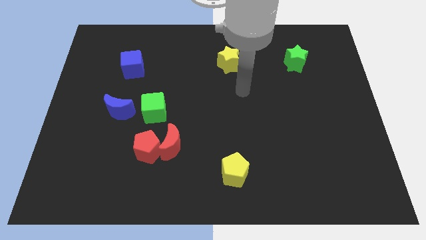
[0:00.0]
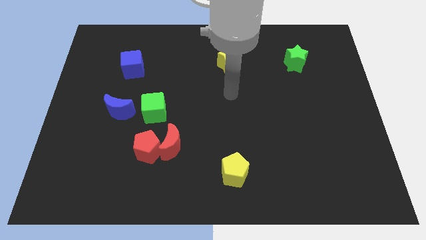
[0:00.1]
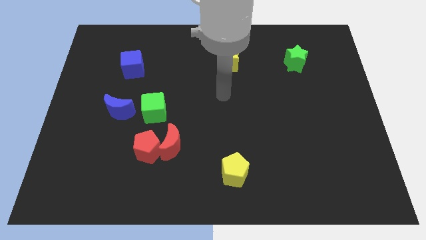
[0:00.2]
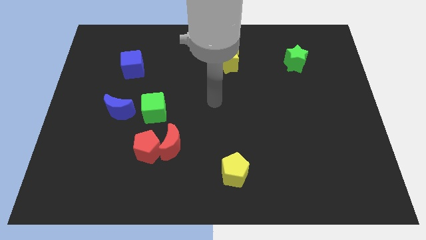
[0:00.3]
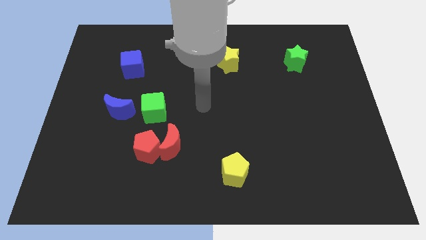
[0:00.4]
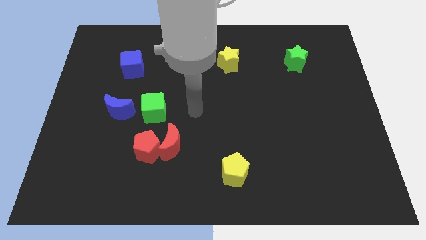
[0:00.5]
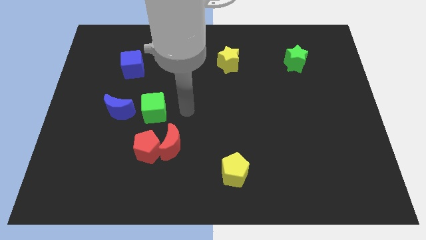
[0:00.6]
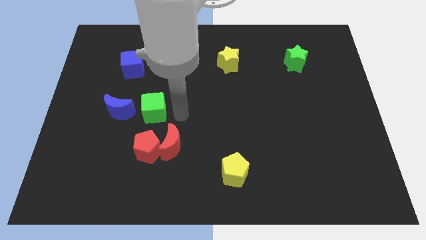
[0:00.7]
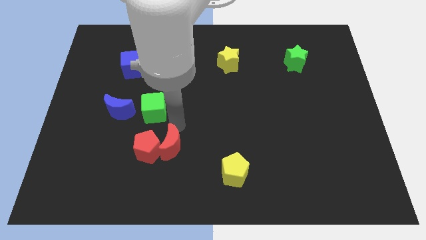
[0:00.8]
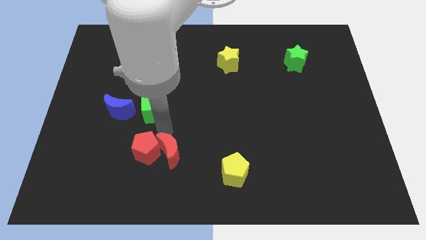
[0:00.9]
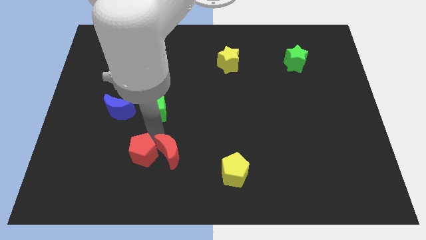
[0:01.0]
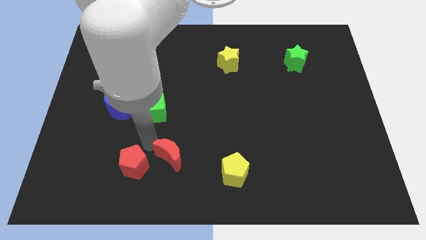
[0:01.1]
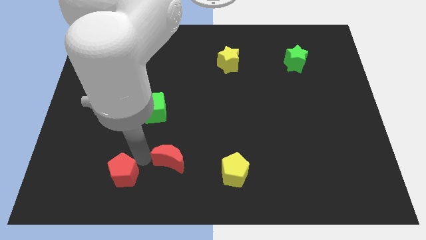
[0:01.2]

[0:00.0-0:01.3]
separate the red moon from the red pentagon

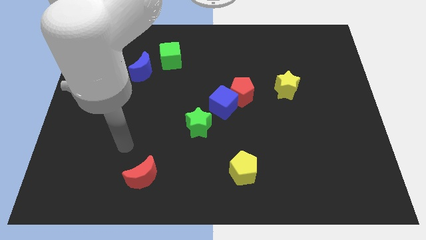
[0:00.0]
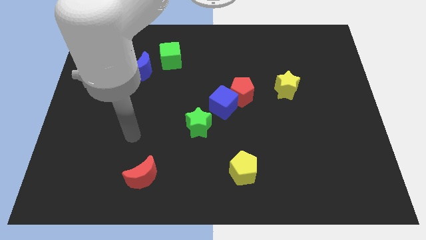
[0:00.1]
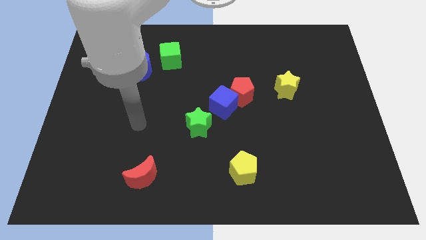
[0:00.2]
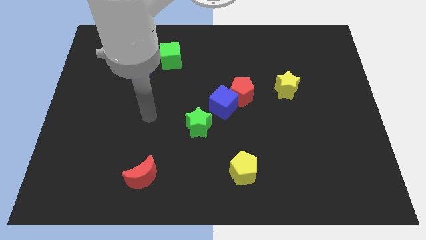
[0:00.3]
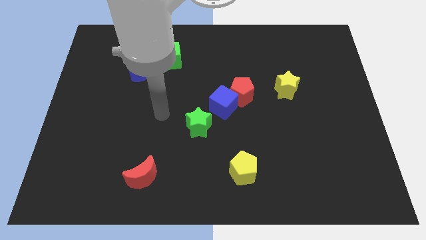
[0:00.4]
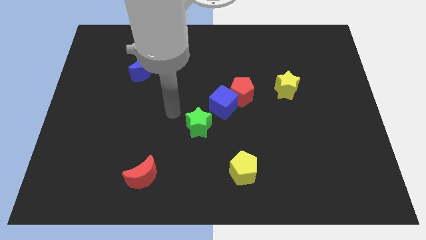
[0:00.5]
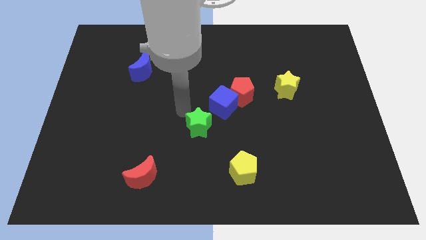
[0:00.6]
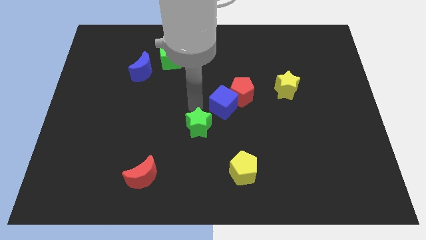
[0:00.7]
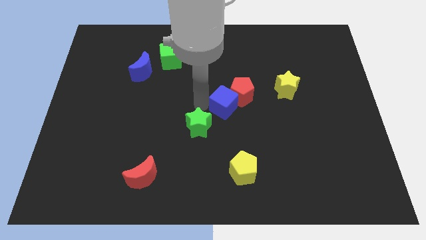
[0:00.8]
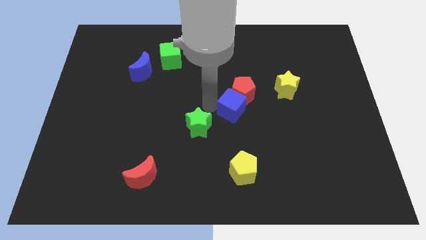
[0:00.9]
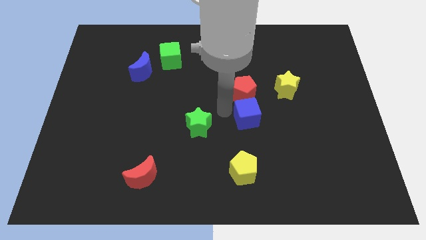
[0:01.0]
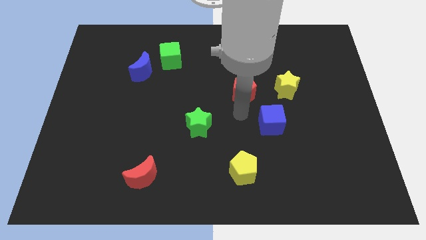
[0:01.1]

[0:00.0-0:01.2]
move the red pentagon away from the blue cube

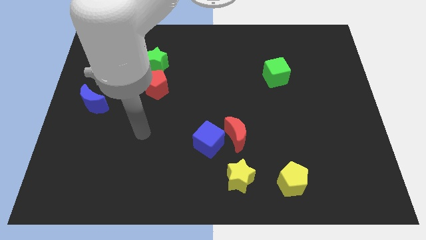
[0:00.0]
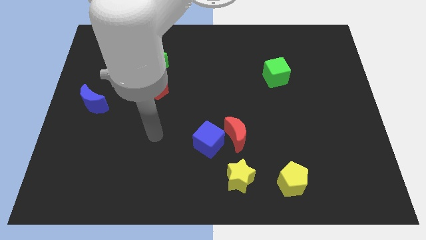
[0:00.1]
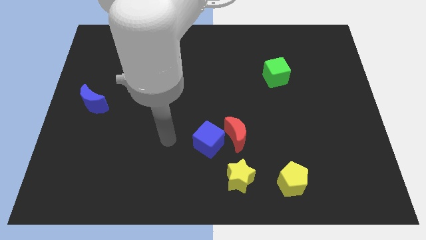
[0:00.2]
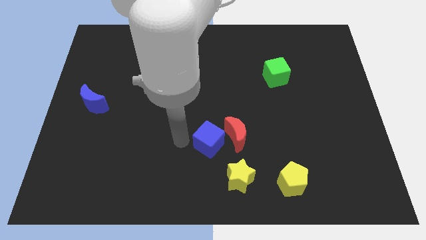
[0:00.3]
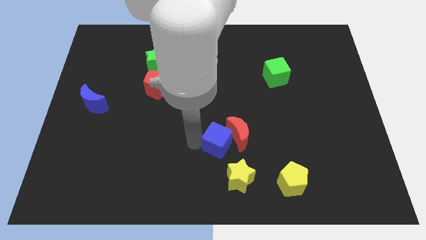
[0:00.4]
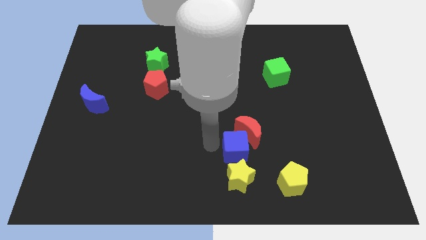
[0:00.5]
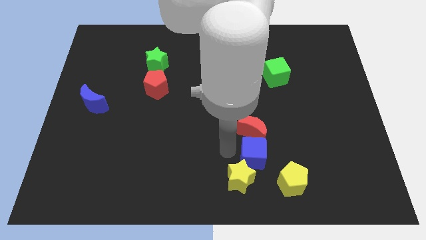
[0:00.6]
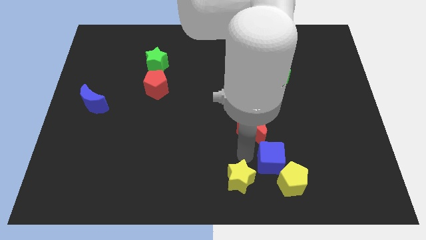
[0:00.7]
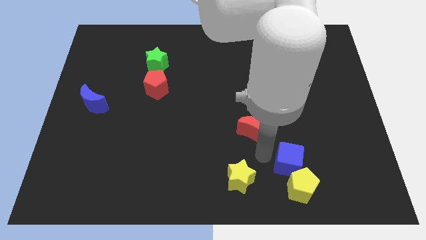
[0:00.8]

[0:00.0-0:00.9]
separate the red moon from the blue cube

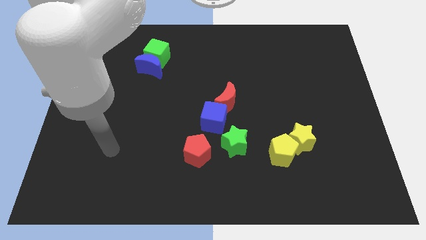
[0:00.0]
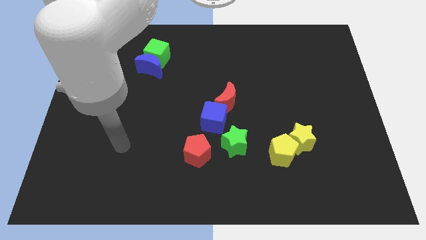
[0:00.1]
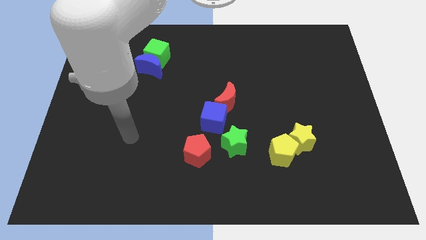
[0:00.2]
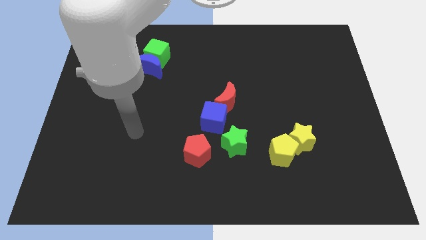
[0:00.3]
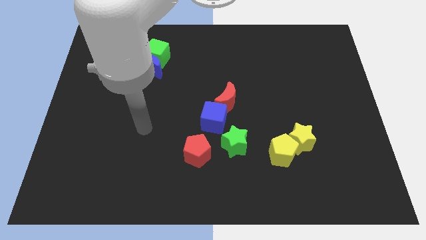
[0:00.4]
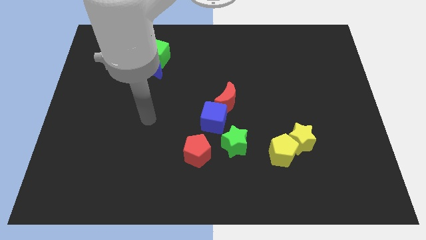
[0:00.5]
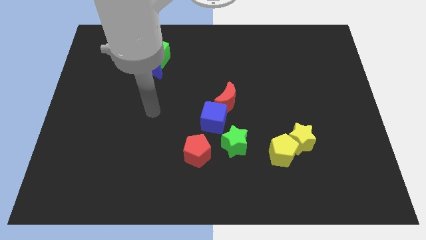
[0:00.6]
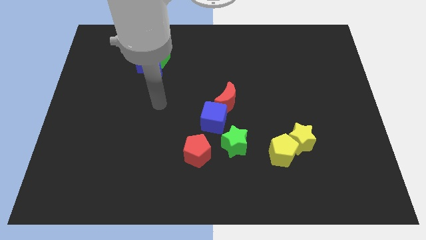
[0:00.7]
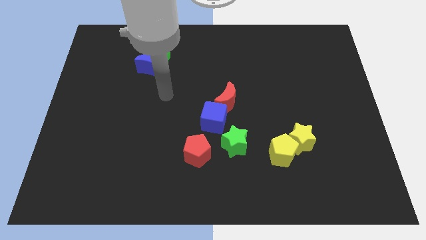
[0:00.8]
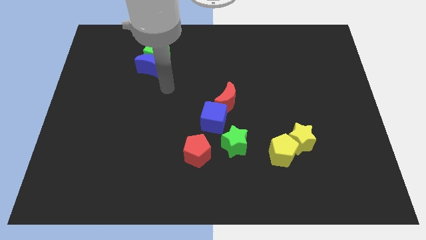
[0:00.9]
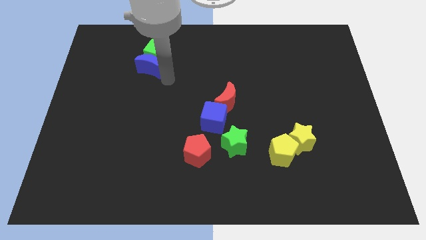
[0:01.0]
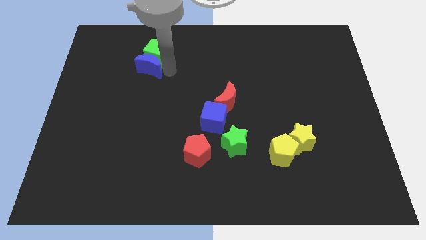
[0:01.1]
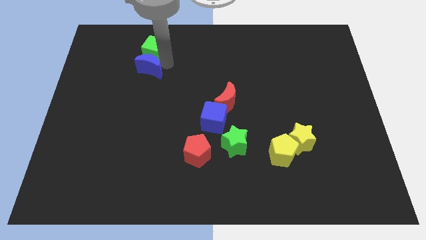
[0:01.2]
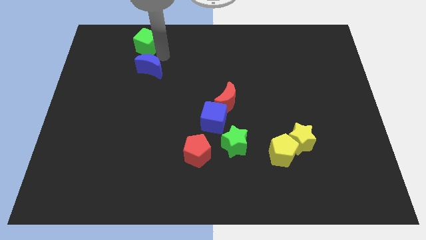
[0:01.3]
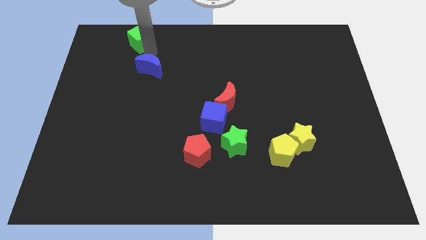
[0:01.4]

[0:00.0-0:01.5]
pull the blue moon apart from the green cube

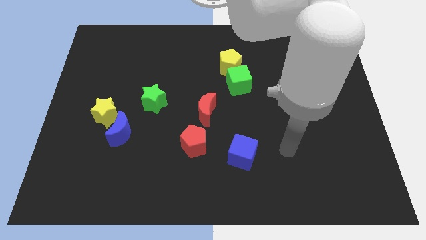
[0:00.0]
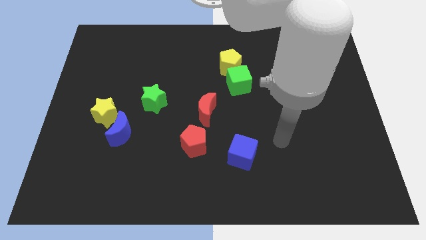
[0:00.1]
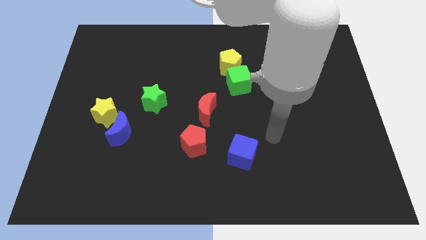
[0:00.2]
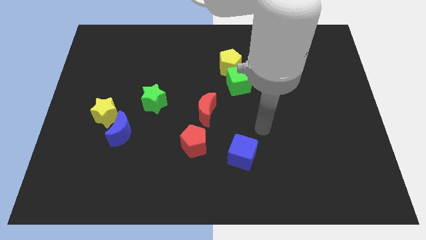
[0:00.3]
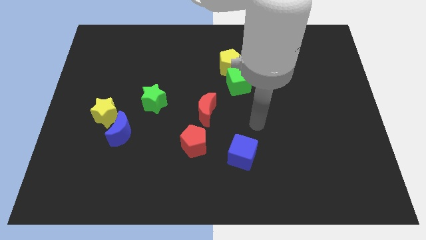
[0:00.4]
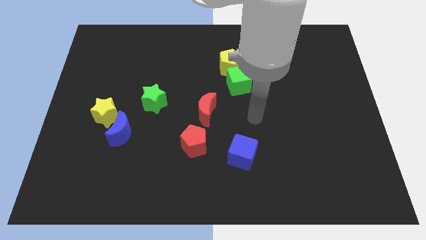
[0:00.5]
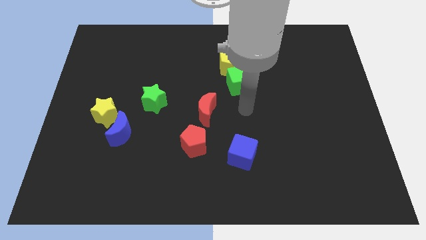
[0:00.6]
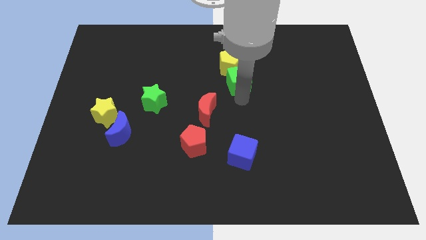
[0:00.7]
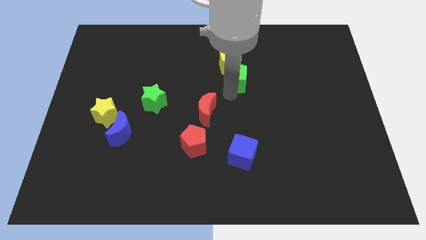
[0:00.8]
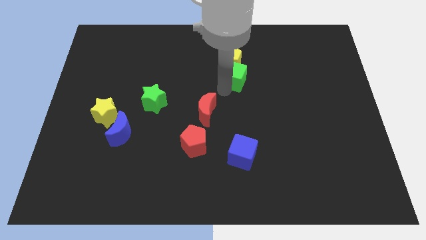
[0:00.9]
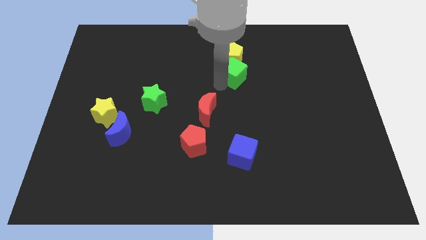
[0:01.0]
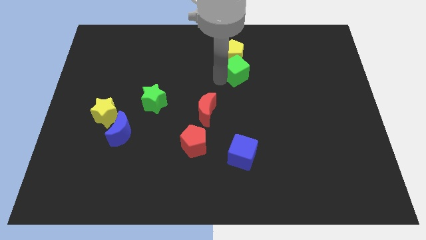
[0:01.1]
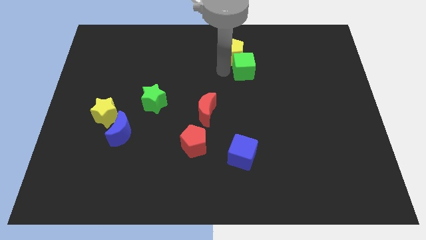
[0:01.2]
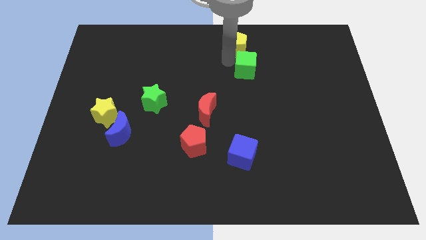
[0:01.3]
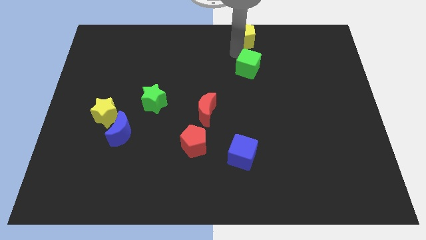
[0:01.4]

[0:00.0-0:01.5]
move the green cube away from the yellow pentagon

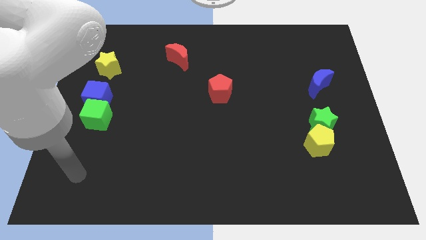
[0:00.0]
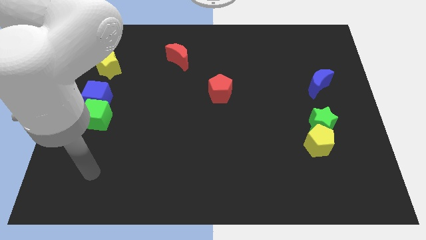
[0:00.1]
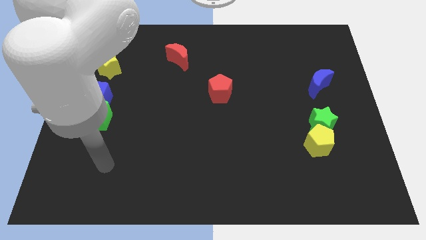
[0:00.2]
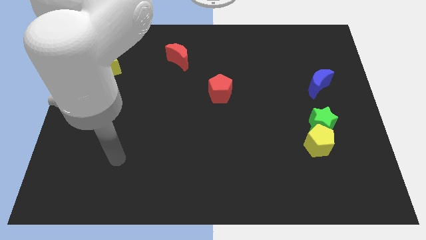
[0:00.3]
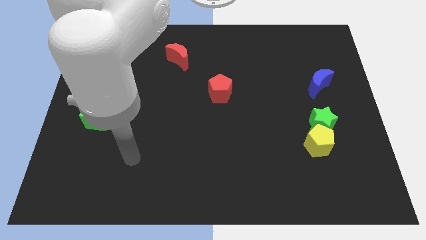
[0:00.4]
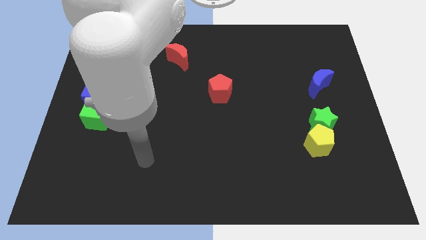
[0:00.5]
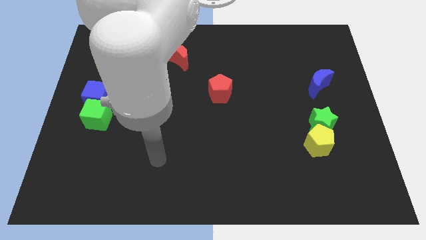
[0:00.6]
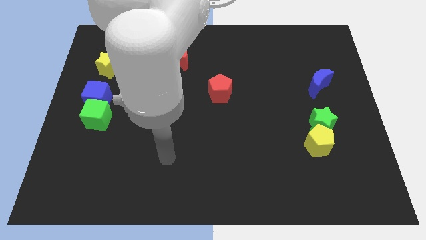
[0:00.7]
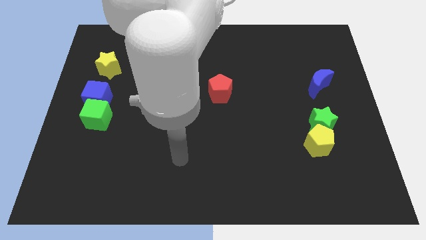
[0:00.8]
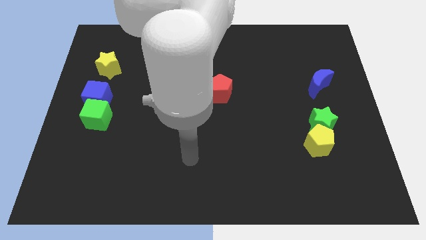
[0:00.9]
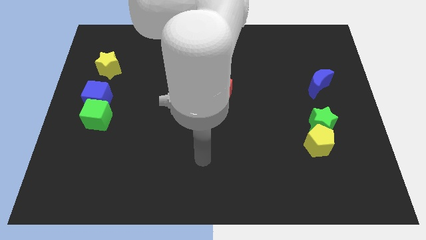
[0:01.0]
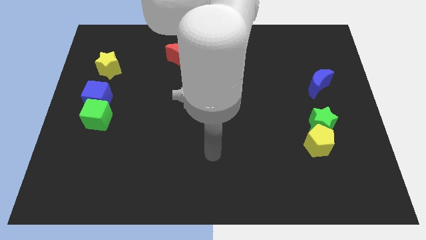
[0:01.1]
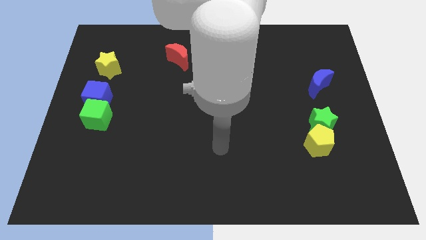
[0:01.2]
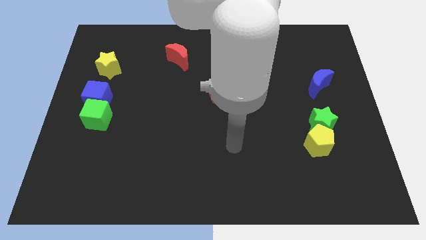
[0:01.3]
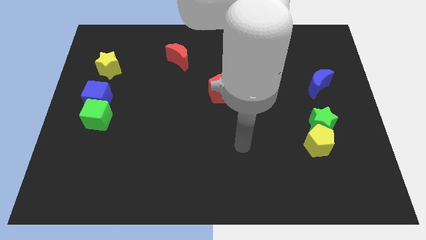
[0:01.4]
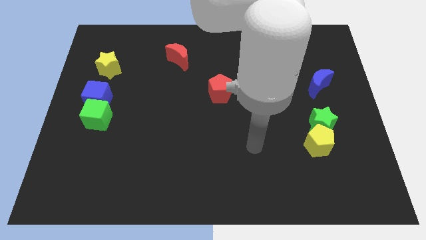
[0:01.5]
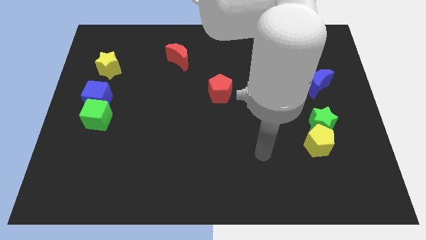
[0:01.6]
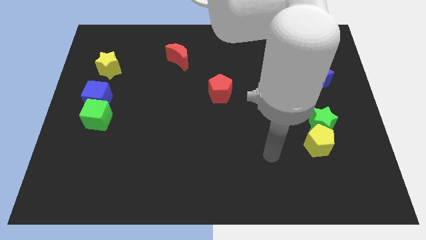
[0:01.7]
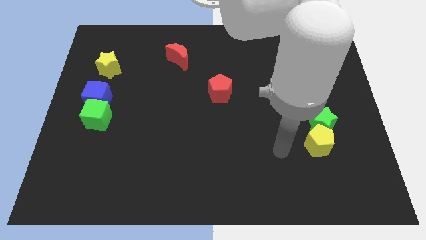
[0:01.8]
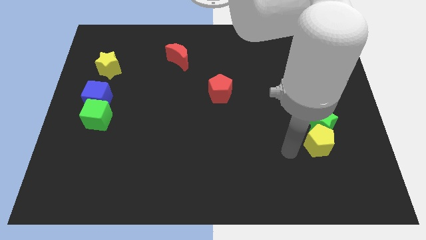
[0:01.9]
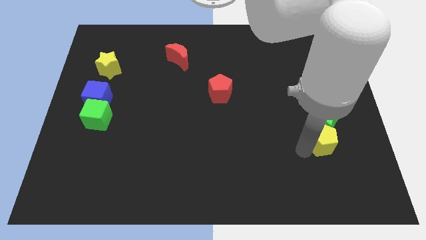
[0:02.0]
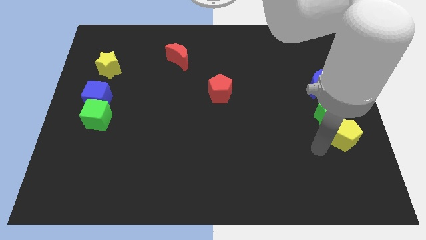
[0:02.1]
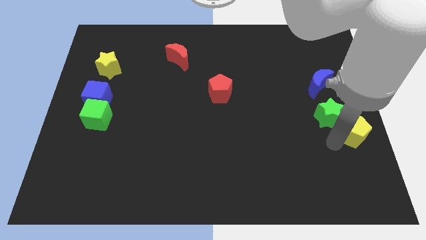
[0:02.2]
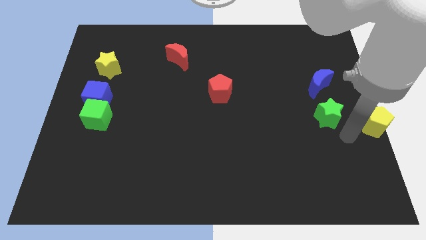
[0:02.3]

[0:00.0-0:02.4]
pull the green star apart from the yellow pentagon

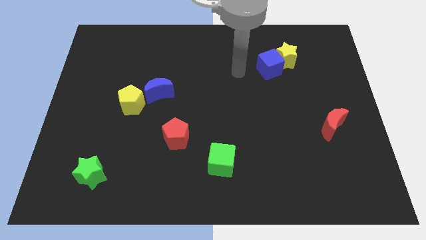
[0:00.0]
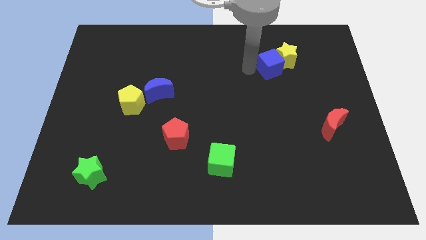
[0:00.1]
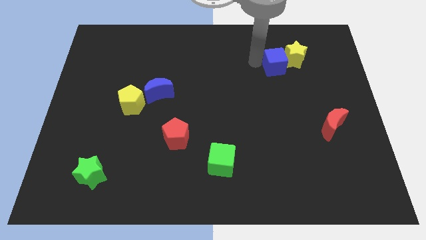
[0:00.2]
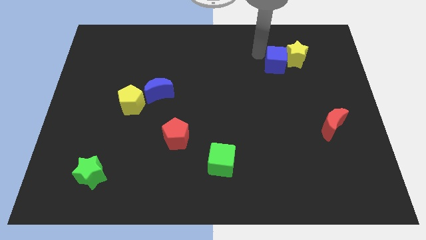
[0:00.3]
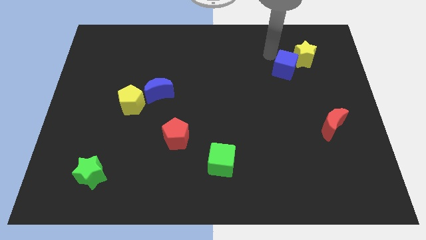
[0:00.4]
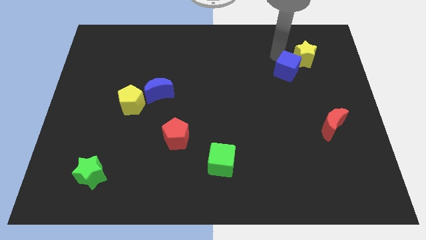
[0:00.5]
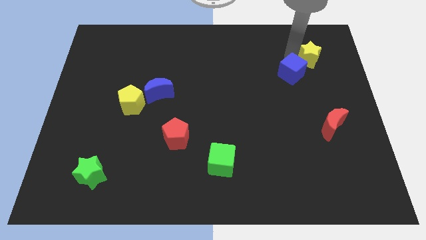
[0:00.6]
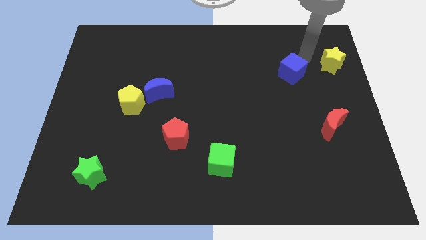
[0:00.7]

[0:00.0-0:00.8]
separate the blue cube from the yellow star
